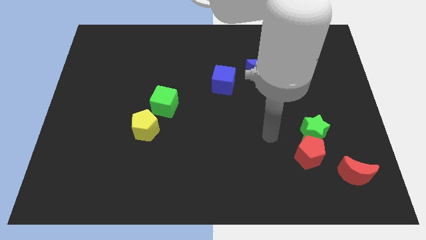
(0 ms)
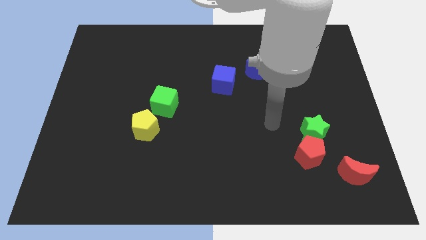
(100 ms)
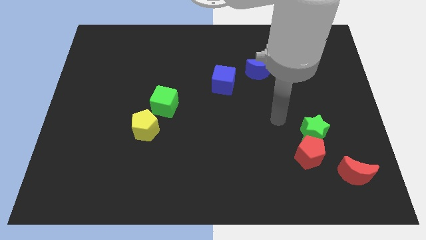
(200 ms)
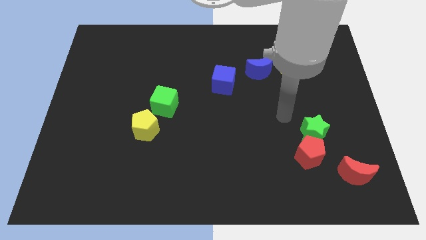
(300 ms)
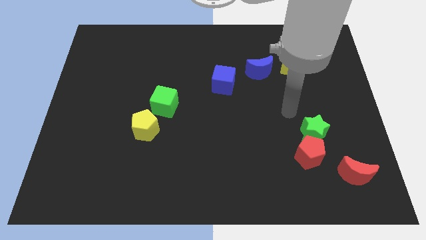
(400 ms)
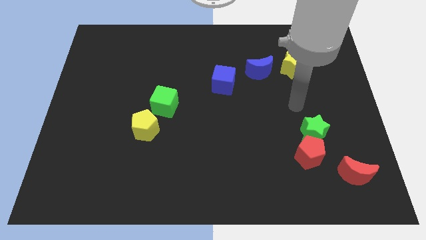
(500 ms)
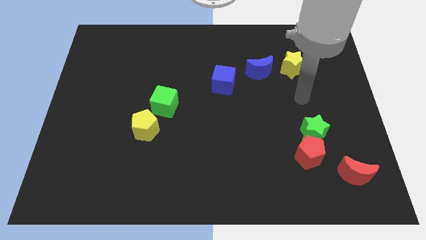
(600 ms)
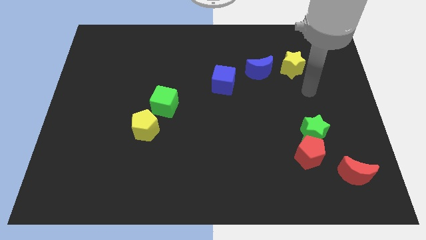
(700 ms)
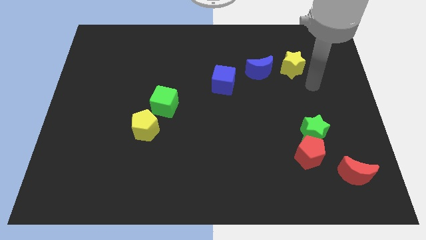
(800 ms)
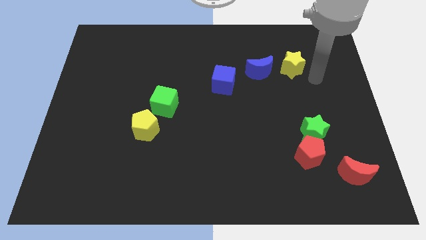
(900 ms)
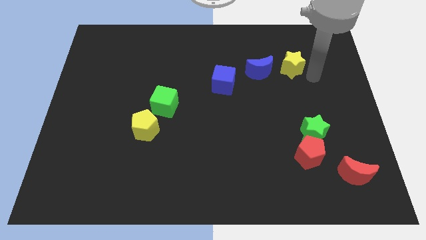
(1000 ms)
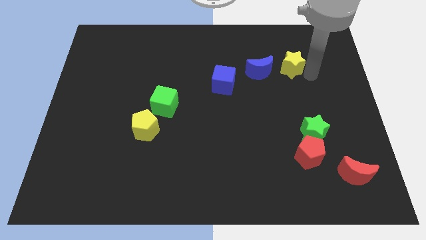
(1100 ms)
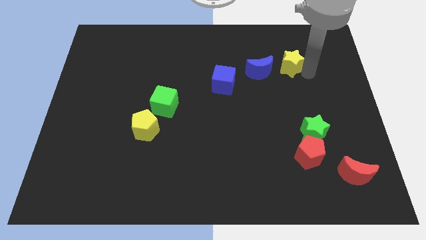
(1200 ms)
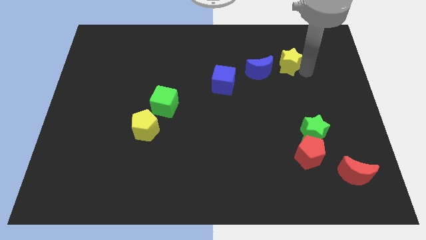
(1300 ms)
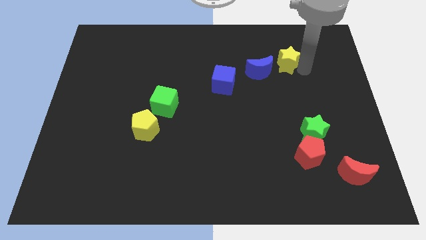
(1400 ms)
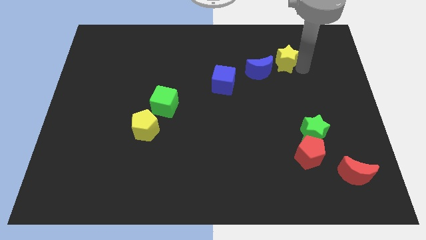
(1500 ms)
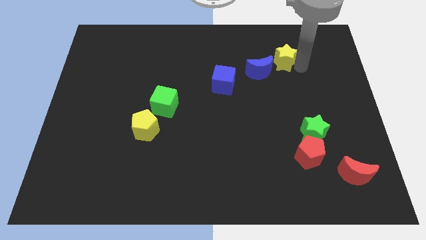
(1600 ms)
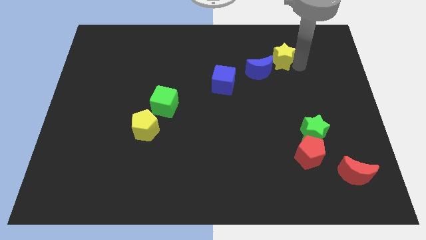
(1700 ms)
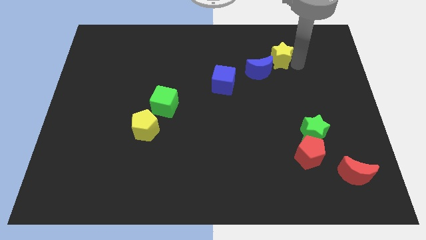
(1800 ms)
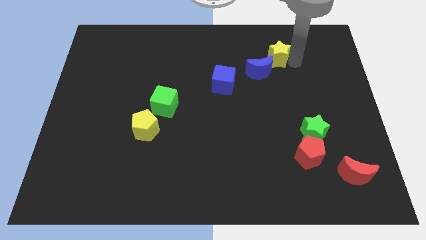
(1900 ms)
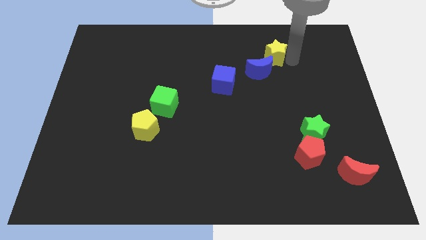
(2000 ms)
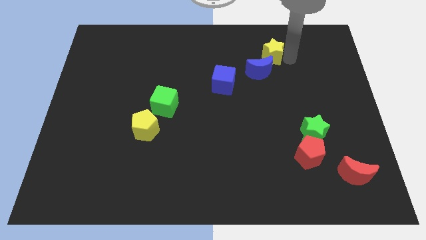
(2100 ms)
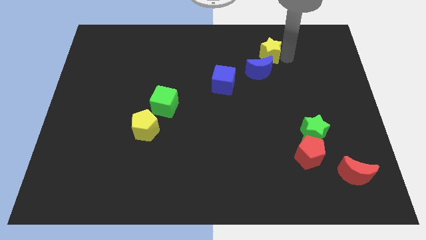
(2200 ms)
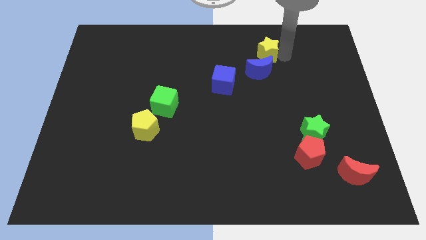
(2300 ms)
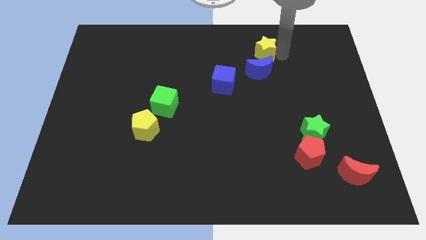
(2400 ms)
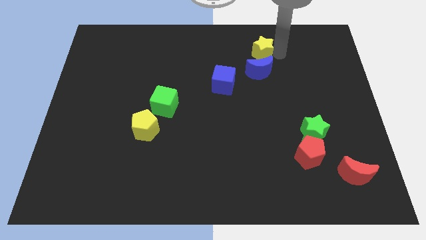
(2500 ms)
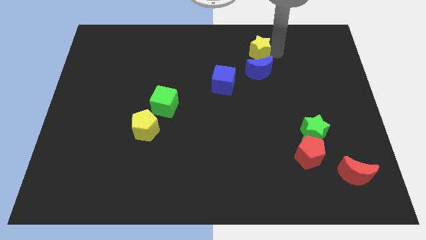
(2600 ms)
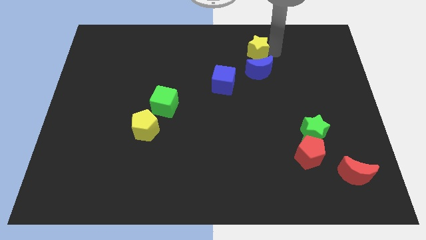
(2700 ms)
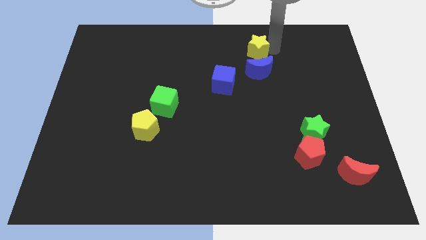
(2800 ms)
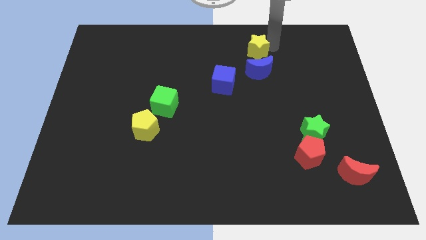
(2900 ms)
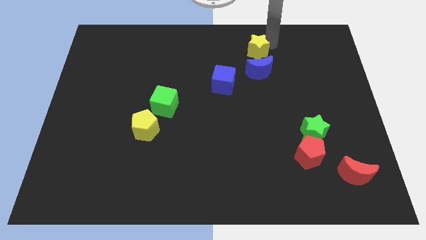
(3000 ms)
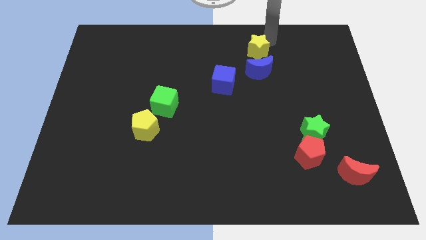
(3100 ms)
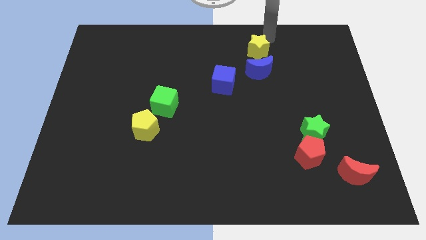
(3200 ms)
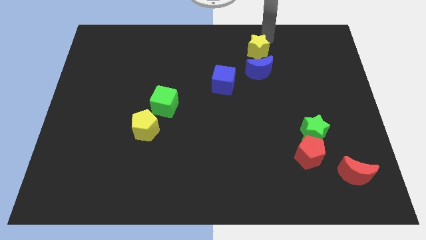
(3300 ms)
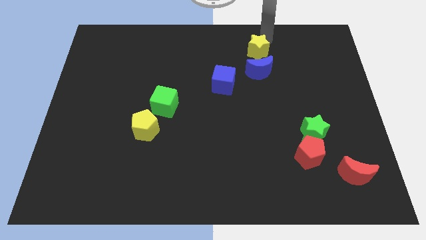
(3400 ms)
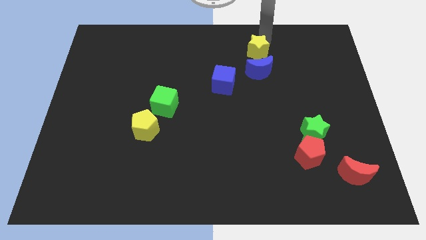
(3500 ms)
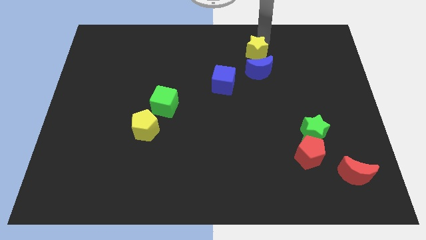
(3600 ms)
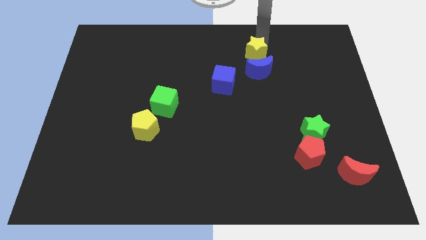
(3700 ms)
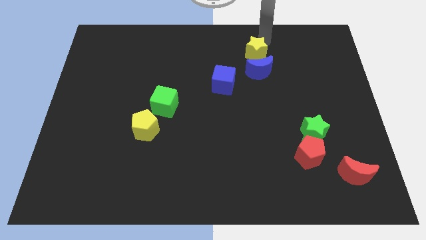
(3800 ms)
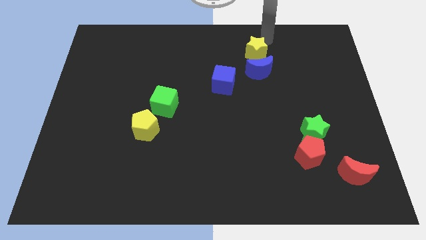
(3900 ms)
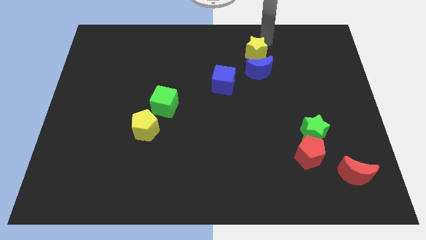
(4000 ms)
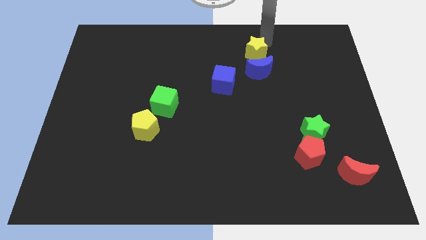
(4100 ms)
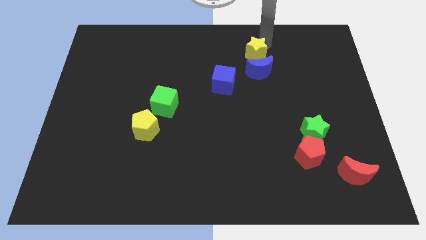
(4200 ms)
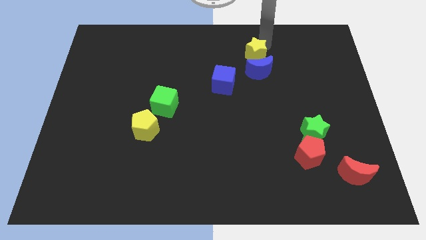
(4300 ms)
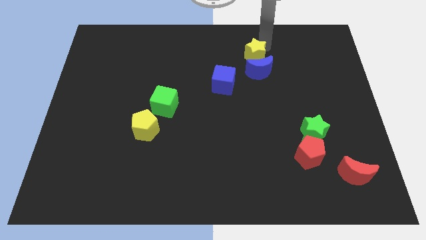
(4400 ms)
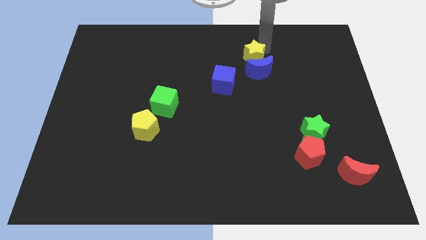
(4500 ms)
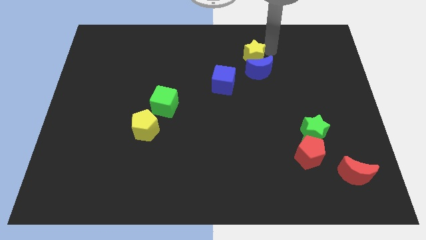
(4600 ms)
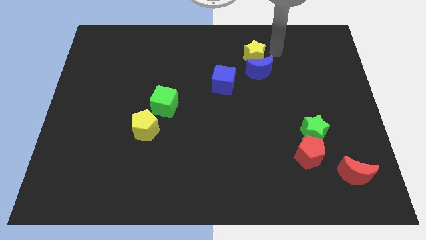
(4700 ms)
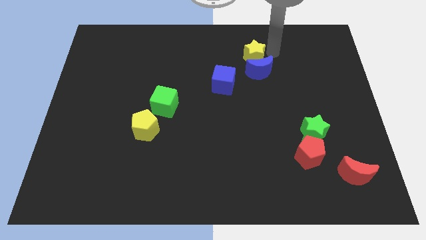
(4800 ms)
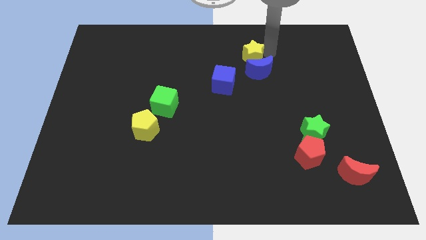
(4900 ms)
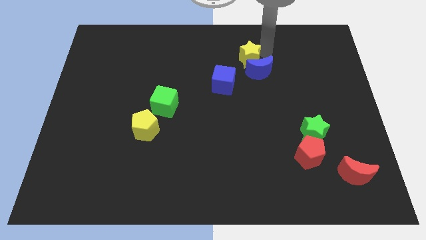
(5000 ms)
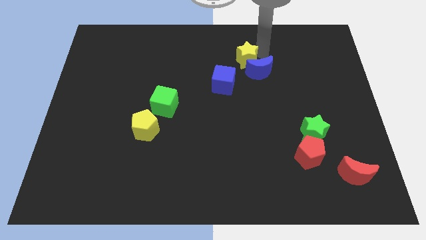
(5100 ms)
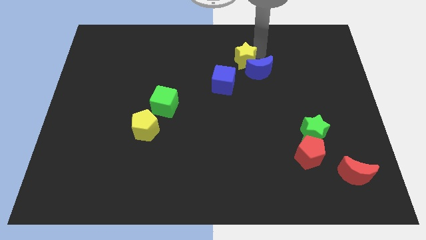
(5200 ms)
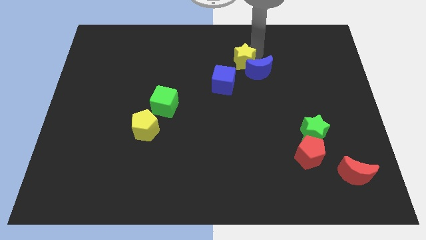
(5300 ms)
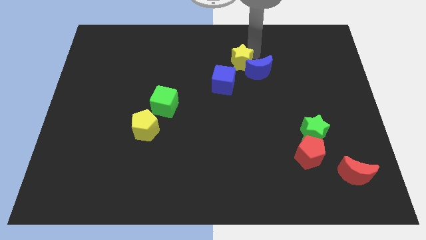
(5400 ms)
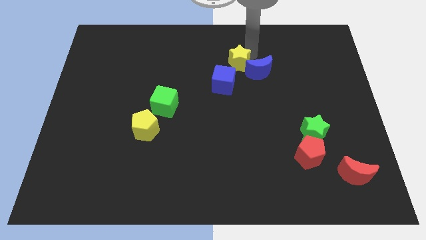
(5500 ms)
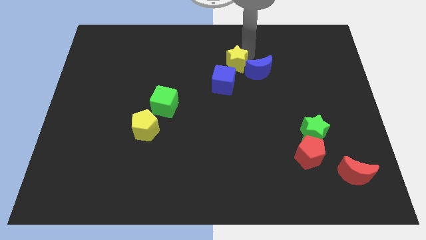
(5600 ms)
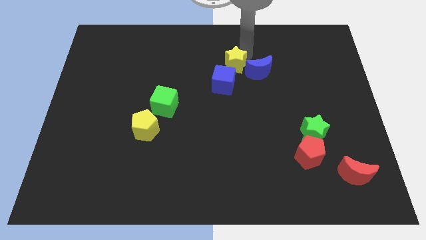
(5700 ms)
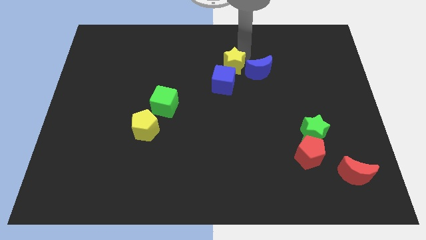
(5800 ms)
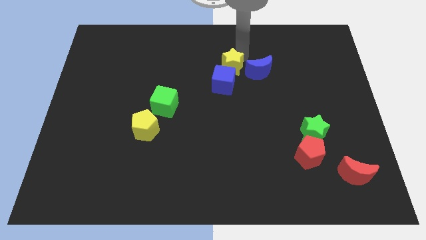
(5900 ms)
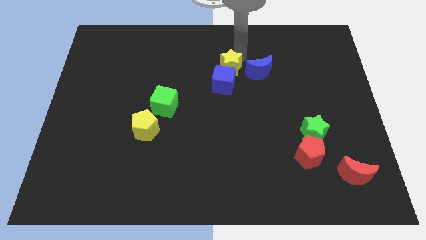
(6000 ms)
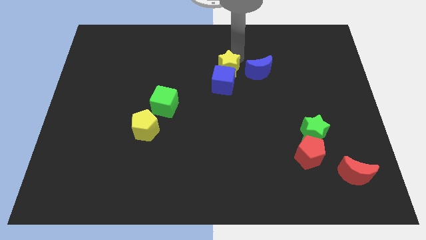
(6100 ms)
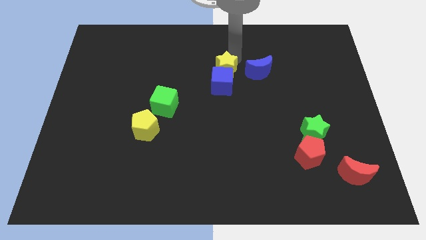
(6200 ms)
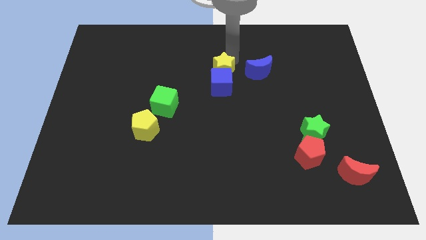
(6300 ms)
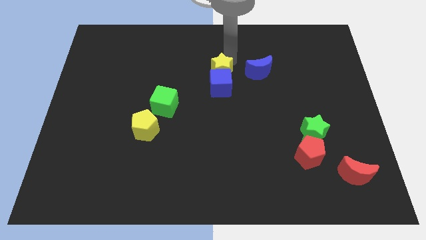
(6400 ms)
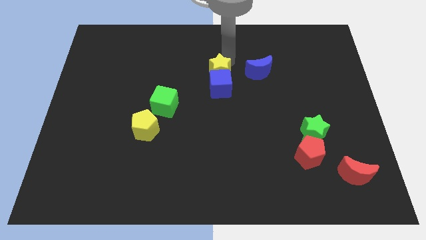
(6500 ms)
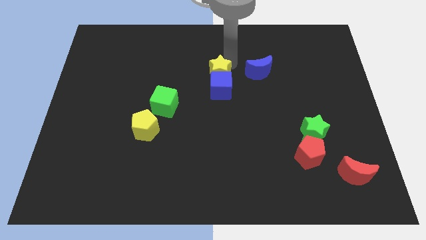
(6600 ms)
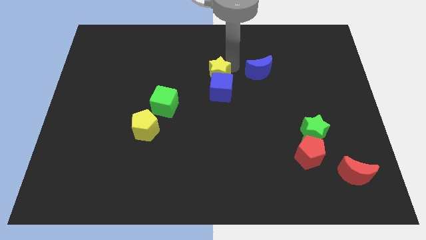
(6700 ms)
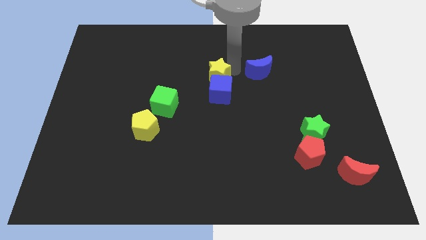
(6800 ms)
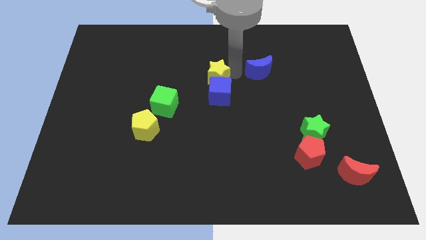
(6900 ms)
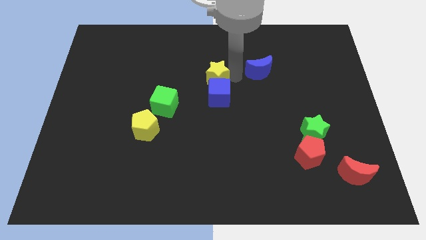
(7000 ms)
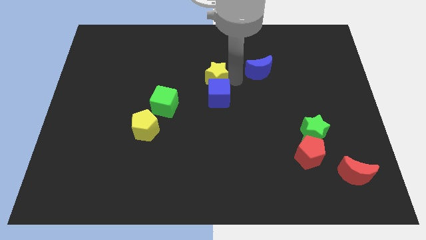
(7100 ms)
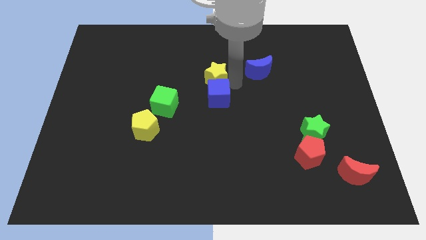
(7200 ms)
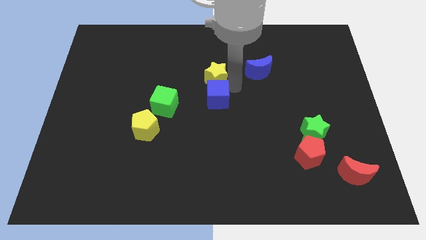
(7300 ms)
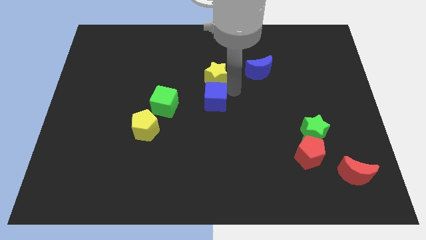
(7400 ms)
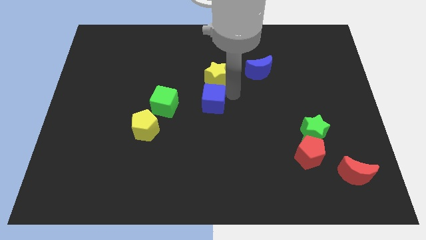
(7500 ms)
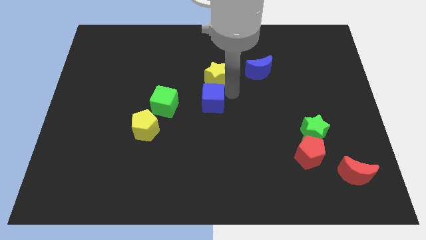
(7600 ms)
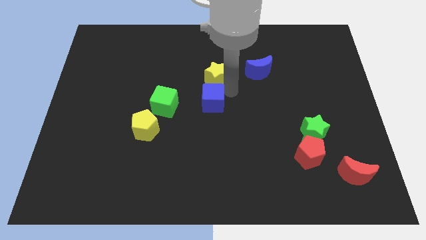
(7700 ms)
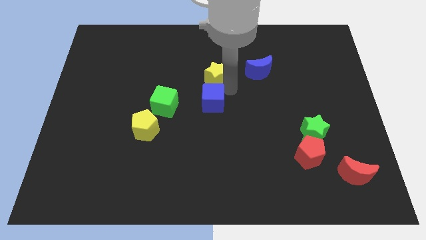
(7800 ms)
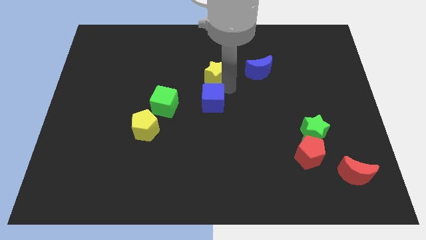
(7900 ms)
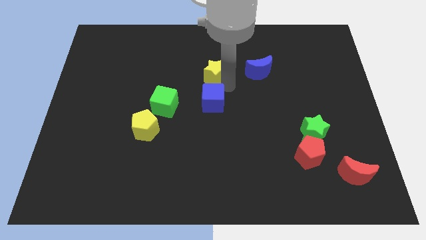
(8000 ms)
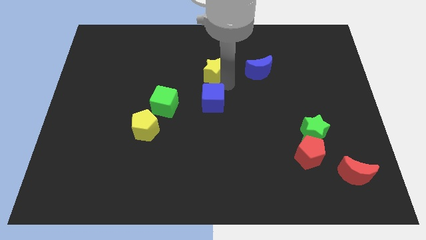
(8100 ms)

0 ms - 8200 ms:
move the yellow star to the left
